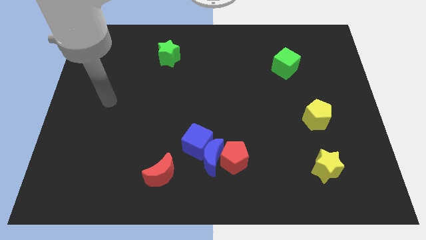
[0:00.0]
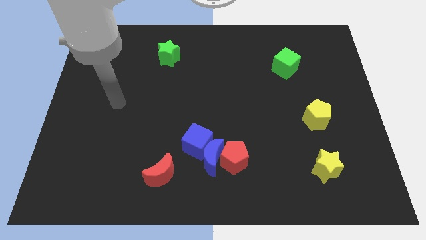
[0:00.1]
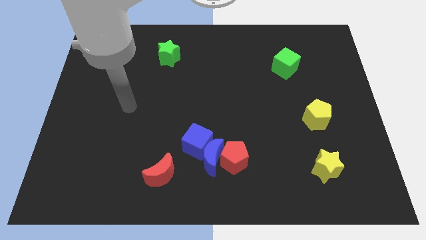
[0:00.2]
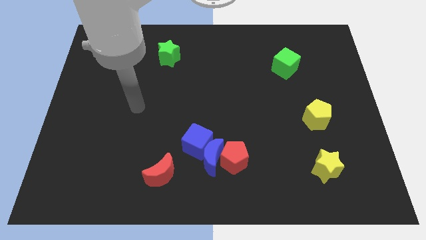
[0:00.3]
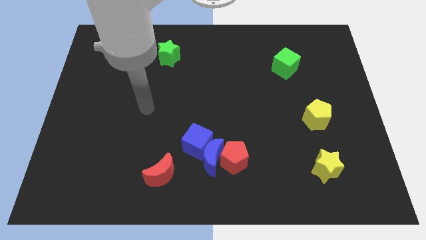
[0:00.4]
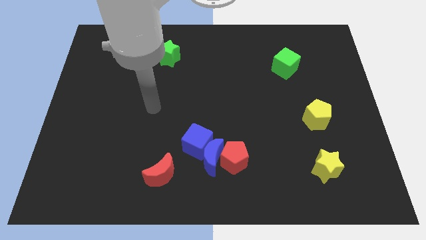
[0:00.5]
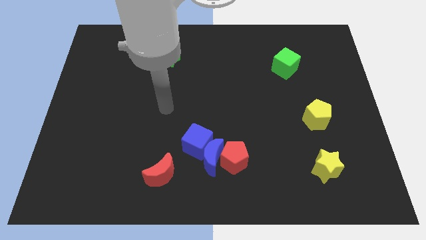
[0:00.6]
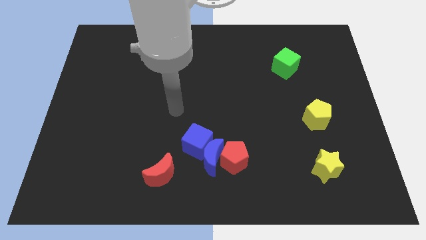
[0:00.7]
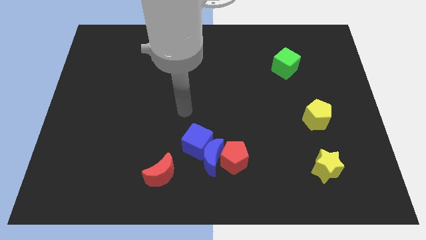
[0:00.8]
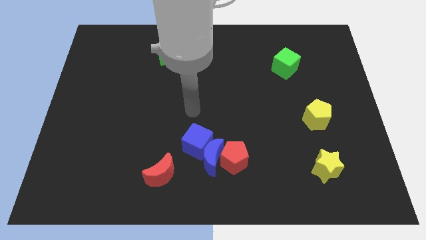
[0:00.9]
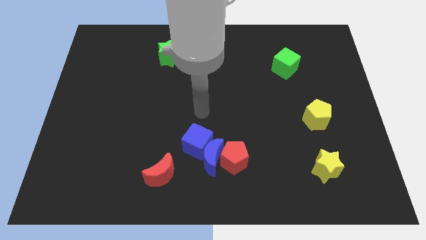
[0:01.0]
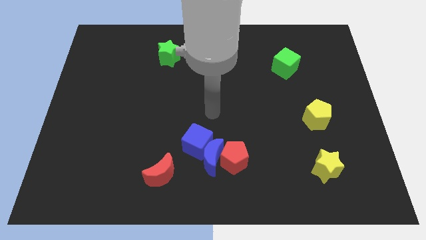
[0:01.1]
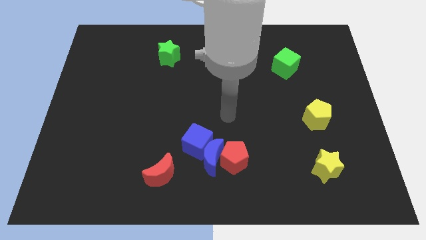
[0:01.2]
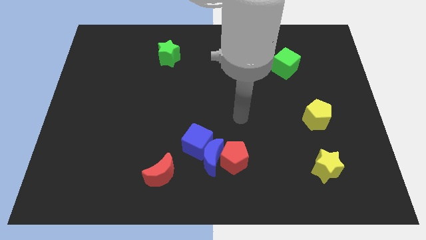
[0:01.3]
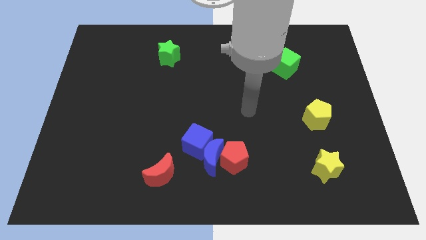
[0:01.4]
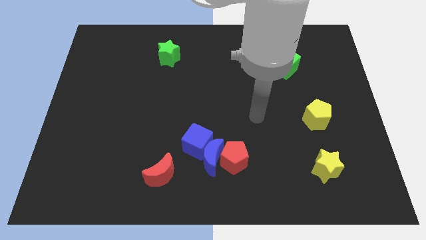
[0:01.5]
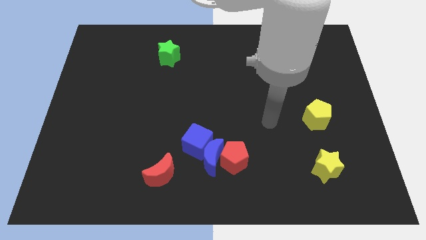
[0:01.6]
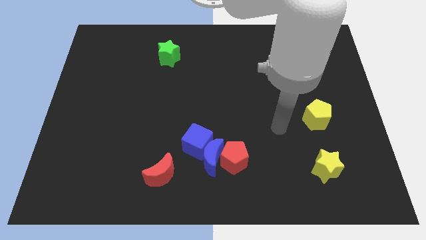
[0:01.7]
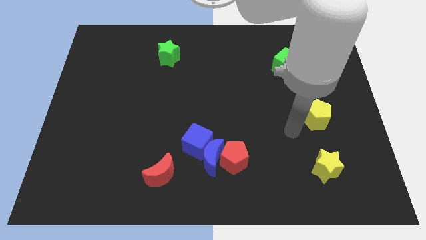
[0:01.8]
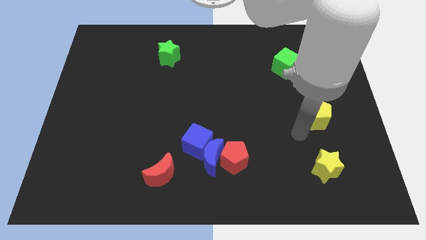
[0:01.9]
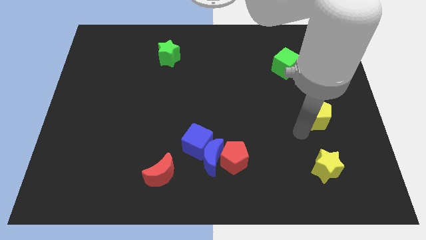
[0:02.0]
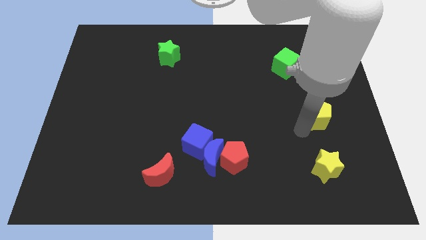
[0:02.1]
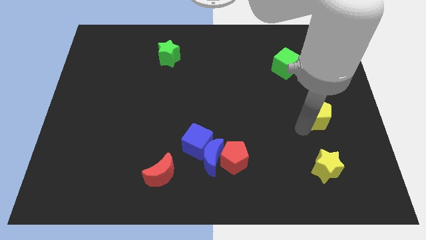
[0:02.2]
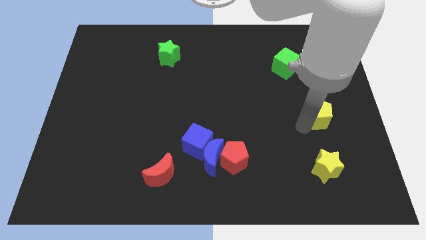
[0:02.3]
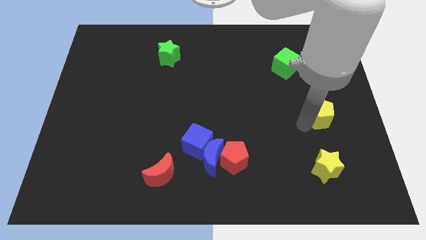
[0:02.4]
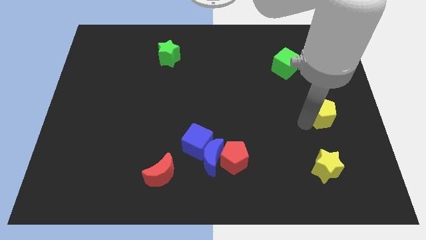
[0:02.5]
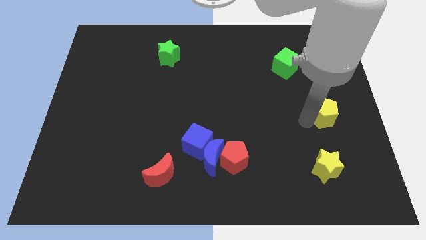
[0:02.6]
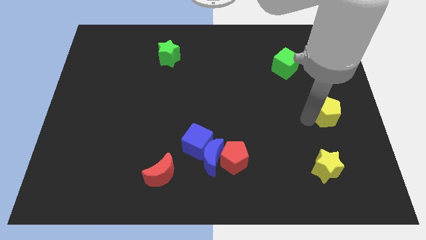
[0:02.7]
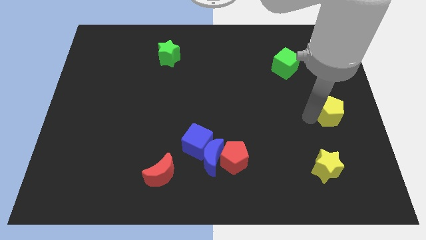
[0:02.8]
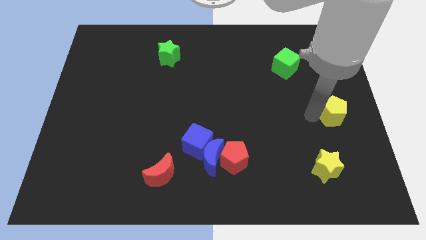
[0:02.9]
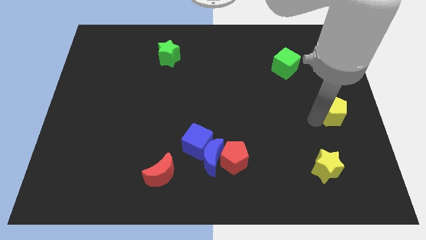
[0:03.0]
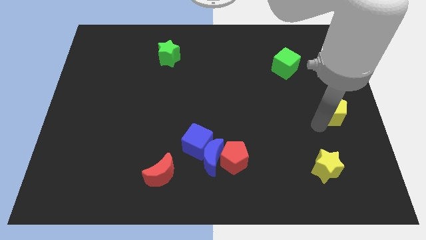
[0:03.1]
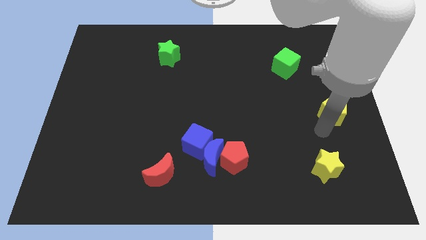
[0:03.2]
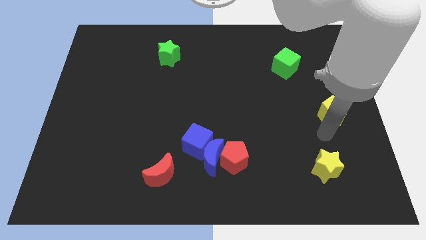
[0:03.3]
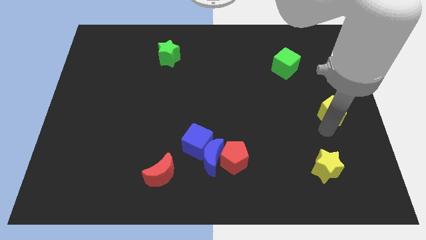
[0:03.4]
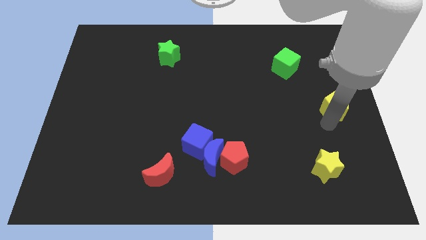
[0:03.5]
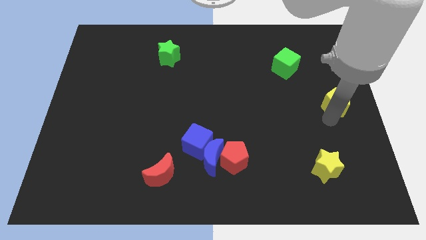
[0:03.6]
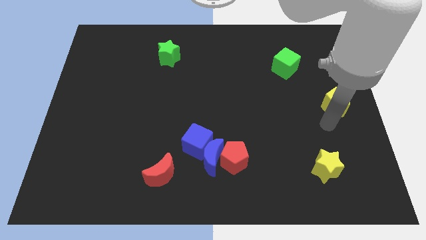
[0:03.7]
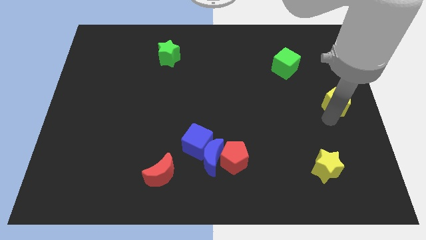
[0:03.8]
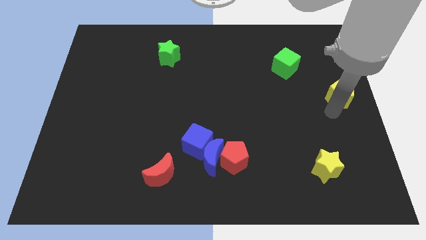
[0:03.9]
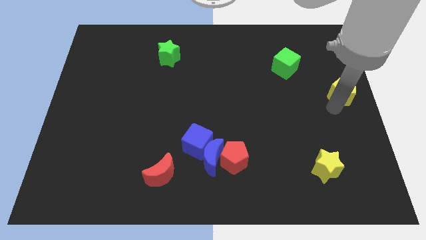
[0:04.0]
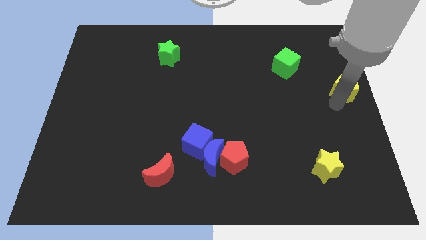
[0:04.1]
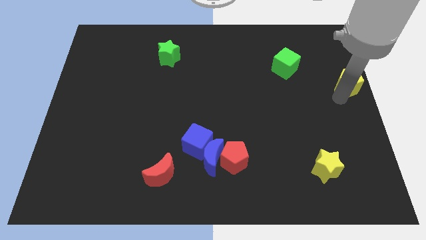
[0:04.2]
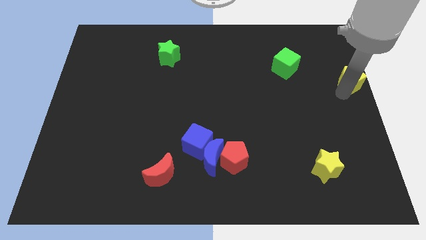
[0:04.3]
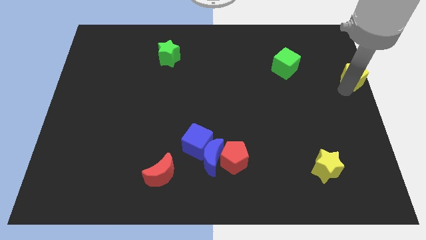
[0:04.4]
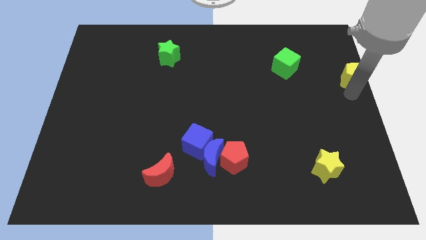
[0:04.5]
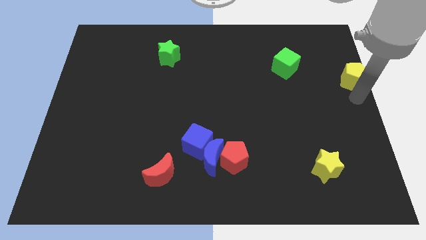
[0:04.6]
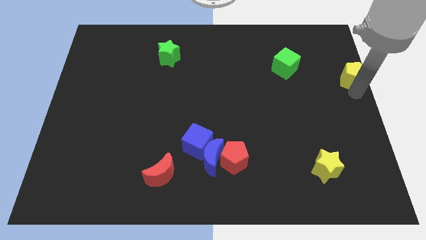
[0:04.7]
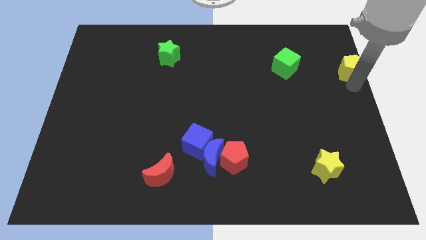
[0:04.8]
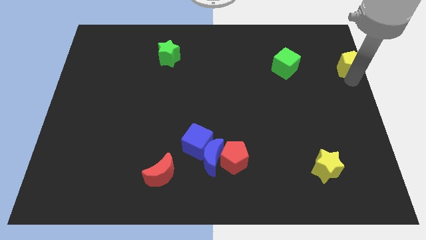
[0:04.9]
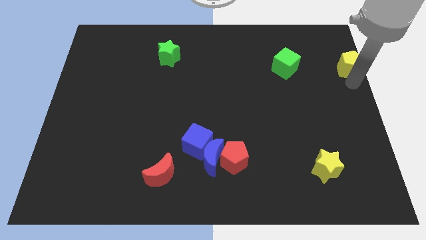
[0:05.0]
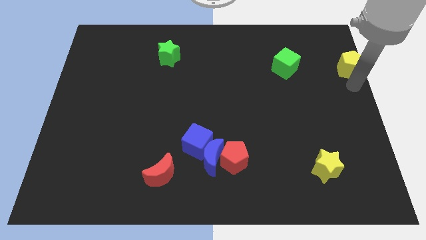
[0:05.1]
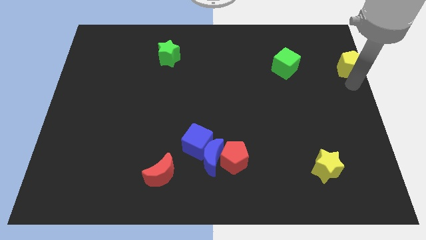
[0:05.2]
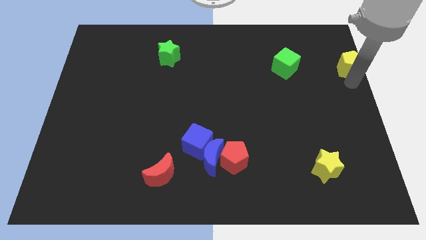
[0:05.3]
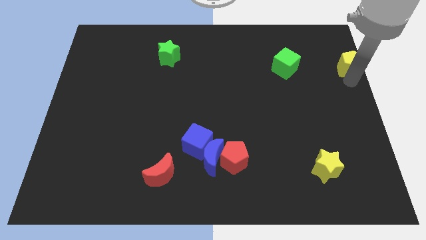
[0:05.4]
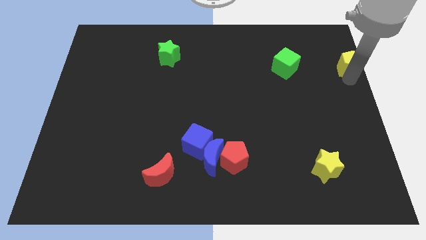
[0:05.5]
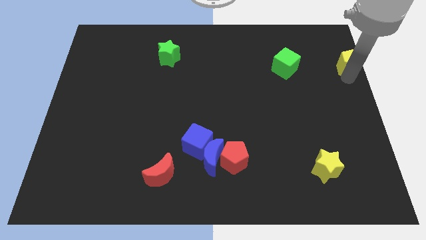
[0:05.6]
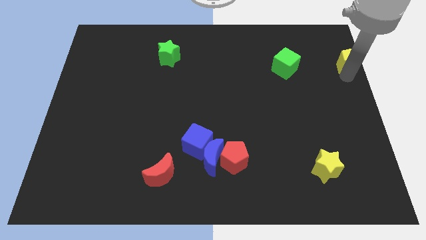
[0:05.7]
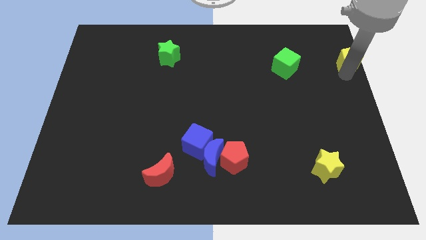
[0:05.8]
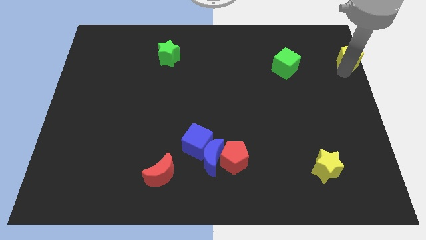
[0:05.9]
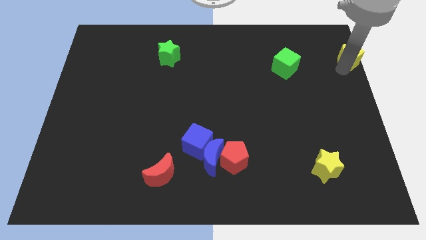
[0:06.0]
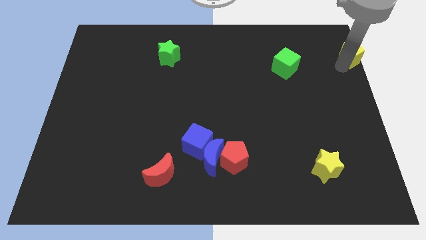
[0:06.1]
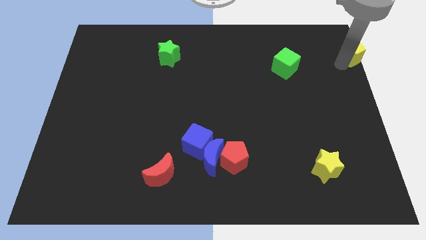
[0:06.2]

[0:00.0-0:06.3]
put the yellow pentagon to the top right of the board
